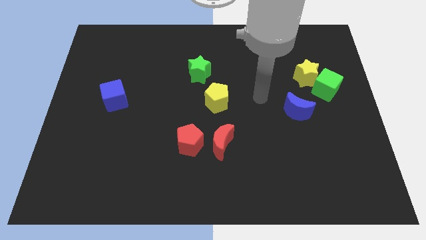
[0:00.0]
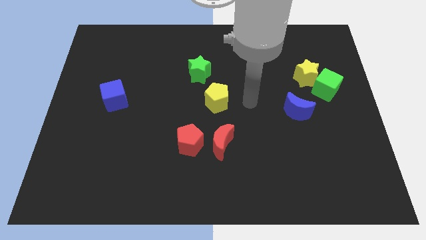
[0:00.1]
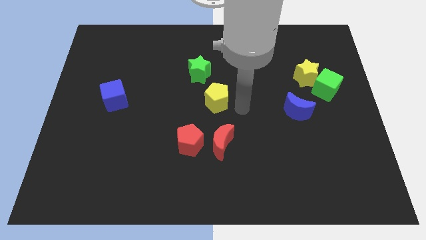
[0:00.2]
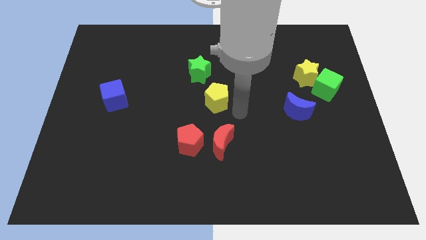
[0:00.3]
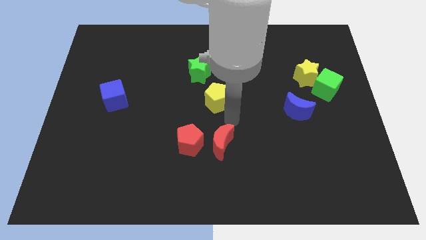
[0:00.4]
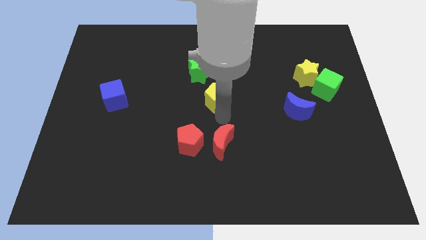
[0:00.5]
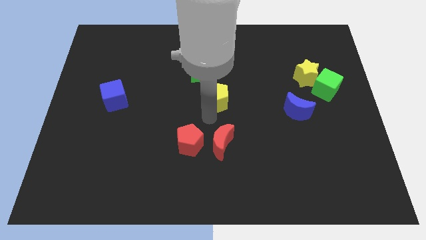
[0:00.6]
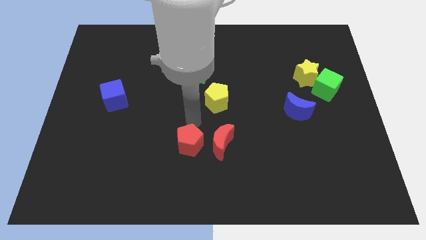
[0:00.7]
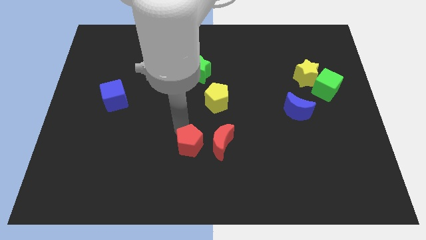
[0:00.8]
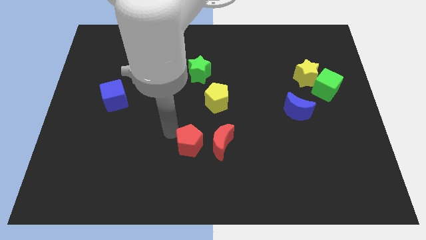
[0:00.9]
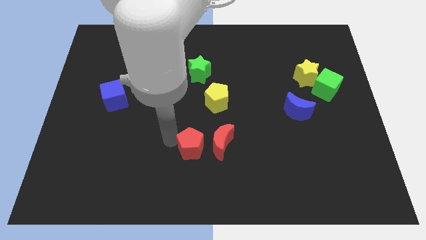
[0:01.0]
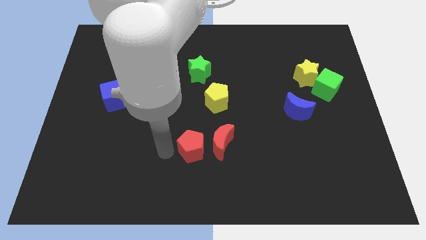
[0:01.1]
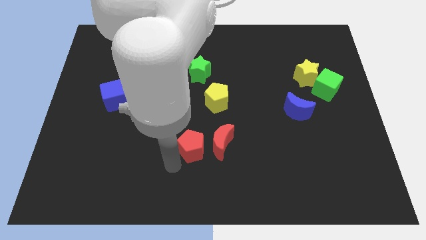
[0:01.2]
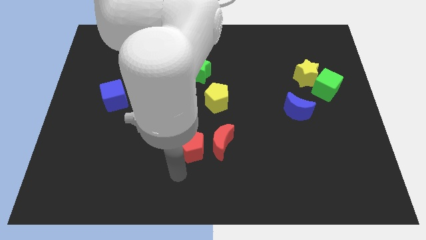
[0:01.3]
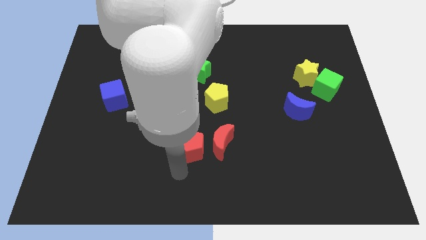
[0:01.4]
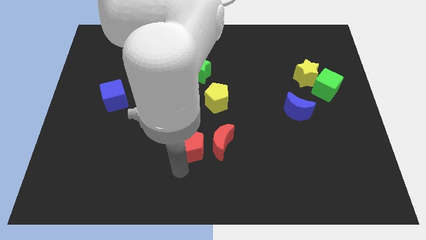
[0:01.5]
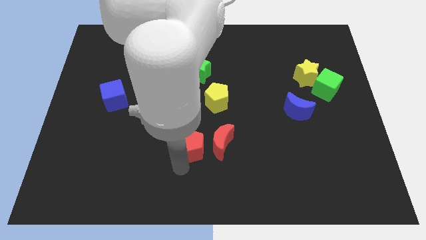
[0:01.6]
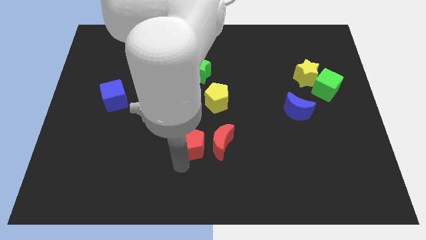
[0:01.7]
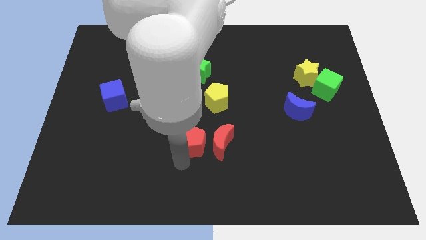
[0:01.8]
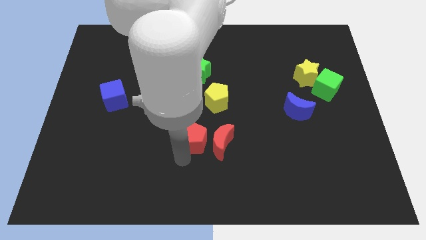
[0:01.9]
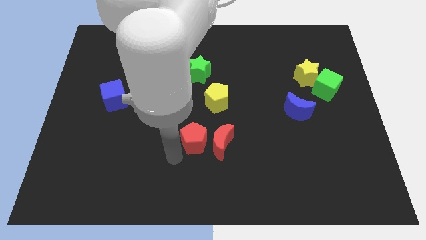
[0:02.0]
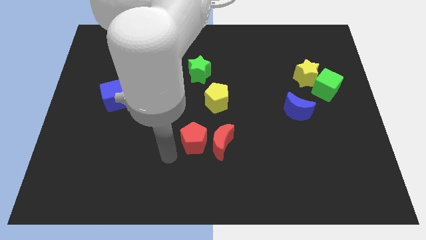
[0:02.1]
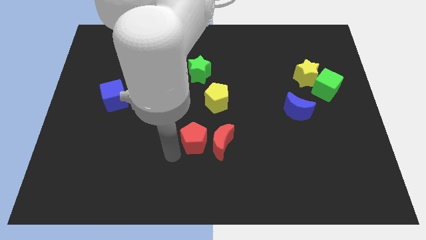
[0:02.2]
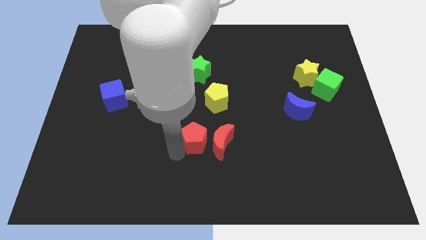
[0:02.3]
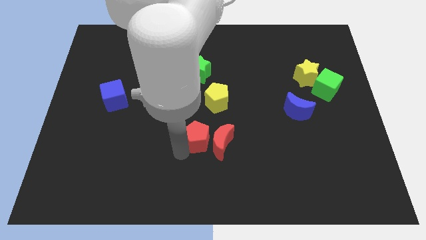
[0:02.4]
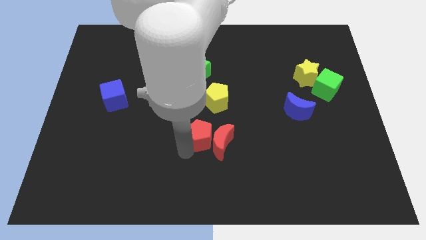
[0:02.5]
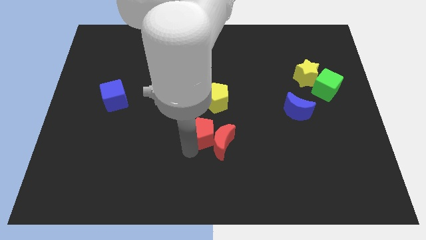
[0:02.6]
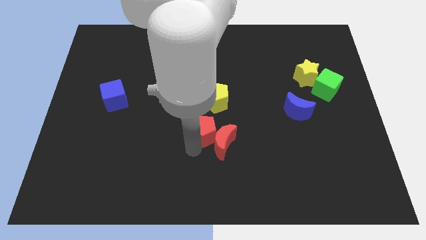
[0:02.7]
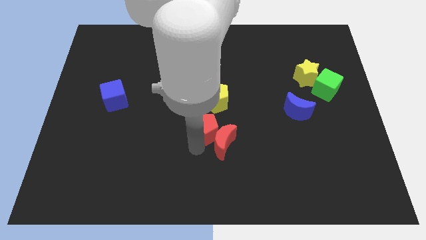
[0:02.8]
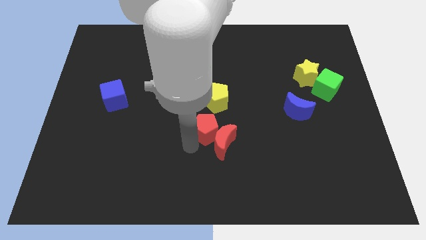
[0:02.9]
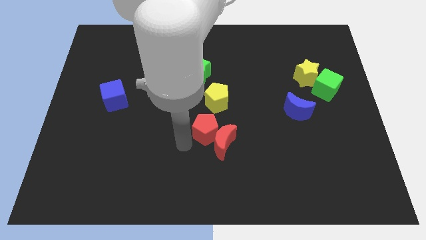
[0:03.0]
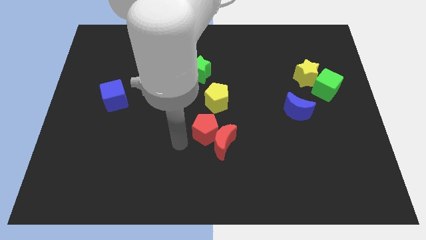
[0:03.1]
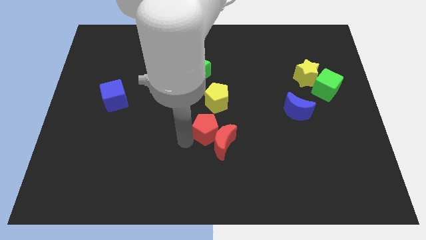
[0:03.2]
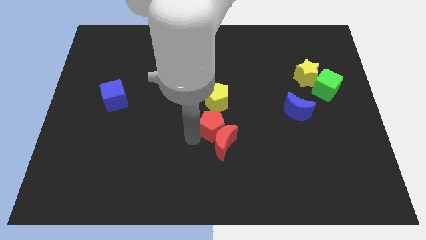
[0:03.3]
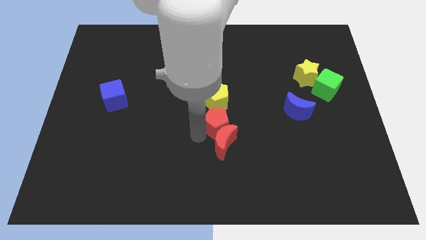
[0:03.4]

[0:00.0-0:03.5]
push the red pentagon slightly up and right

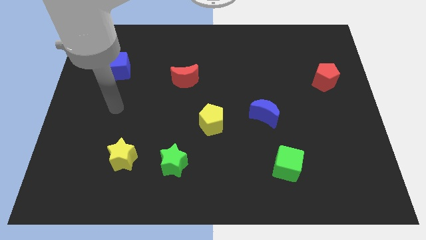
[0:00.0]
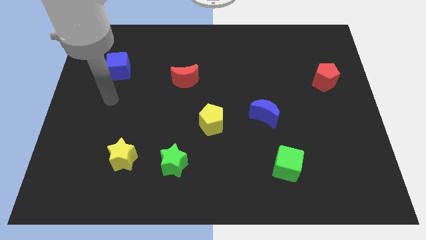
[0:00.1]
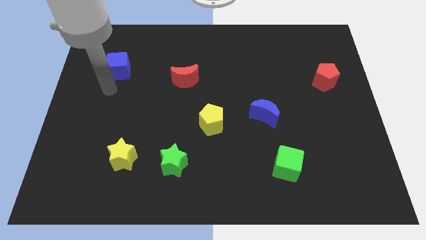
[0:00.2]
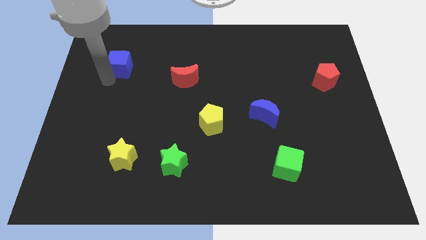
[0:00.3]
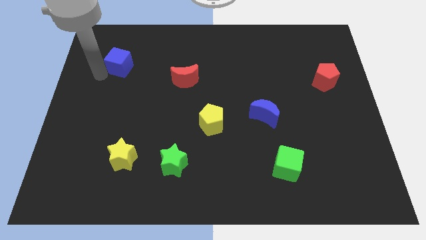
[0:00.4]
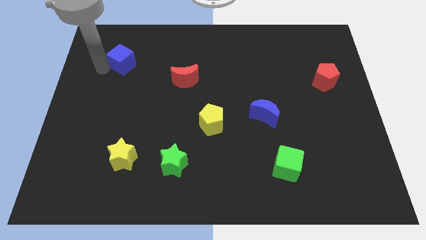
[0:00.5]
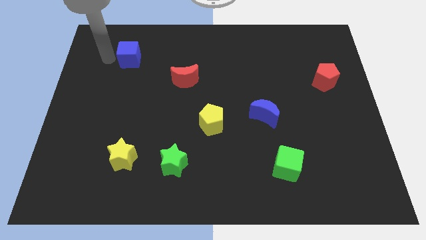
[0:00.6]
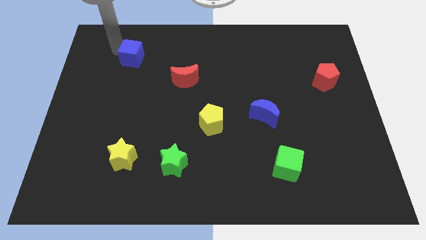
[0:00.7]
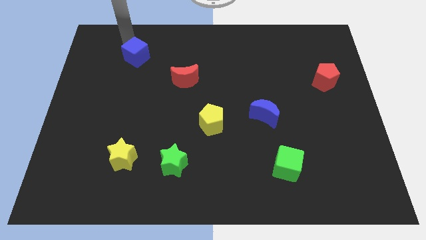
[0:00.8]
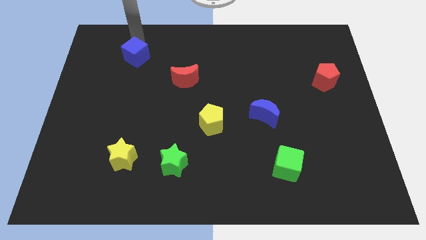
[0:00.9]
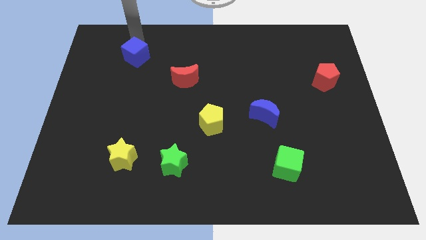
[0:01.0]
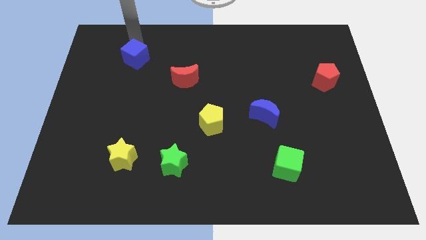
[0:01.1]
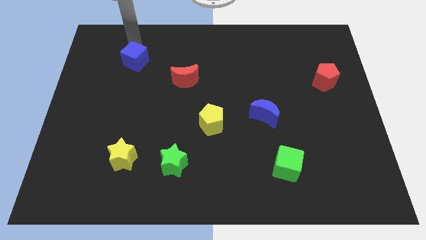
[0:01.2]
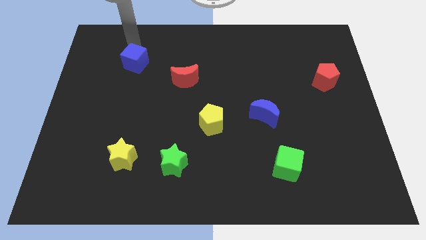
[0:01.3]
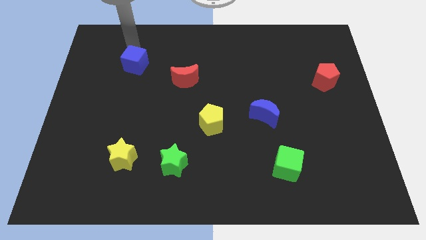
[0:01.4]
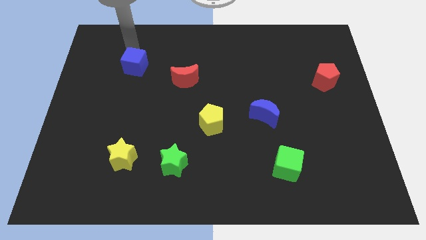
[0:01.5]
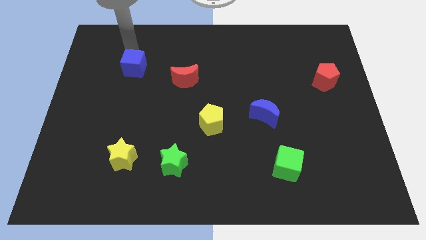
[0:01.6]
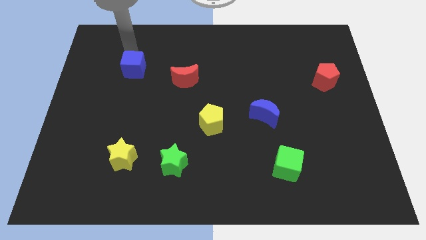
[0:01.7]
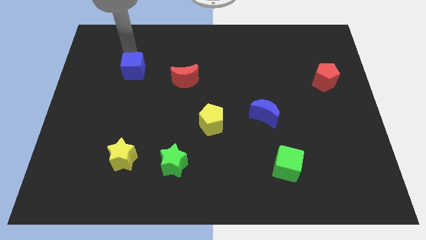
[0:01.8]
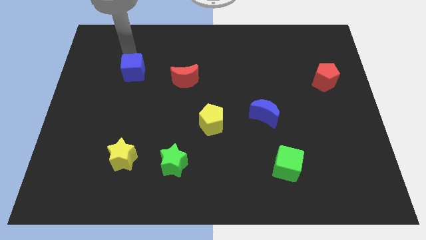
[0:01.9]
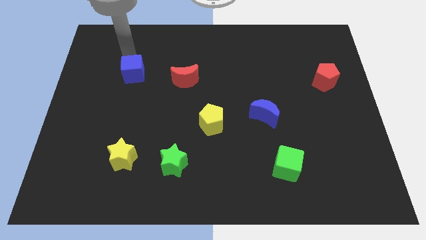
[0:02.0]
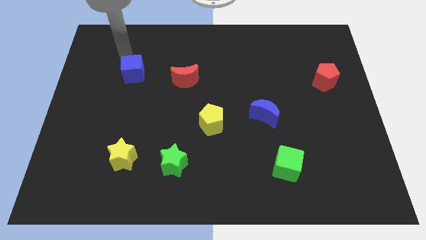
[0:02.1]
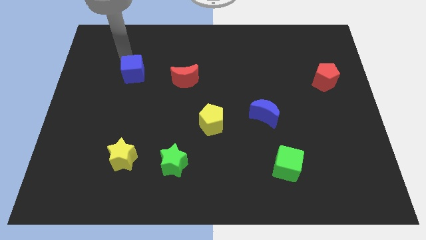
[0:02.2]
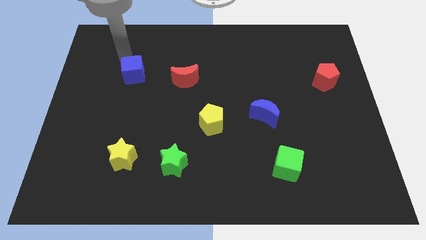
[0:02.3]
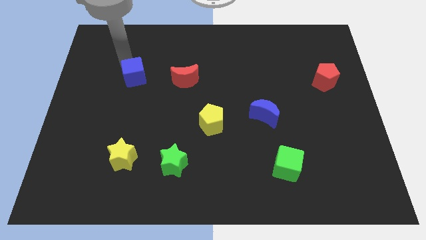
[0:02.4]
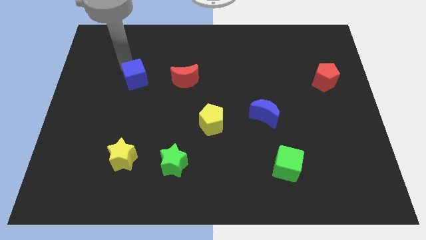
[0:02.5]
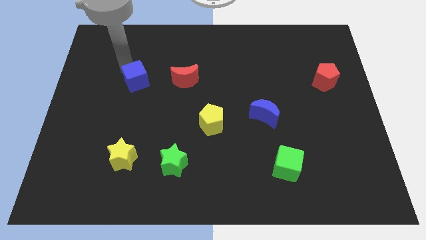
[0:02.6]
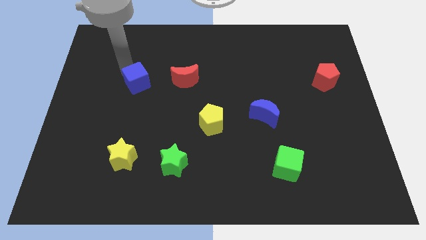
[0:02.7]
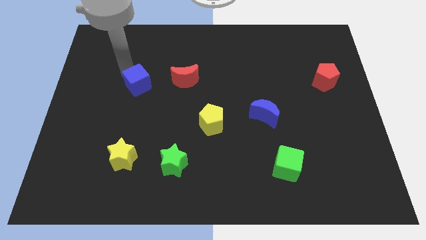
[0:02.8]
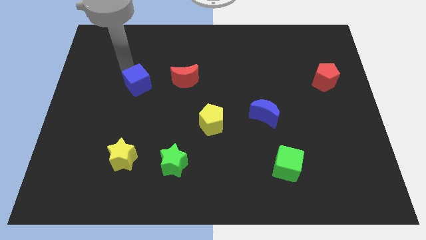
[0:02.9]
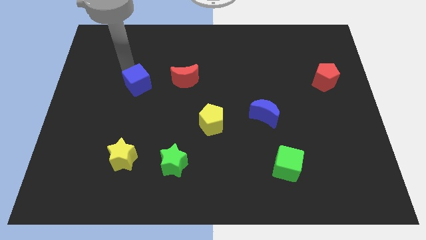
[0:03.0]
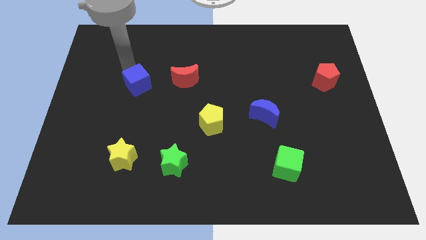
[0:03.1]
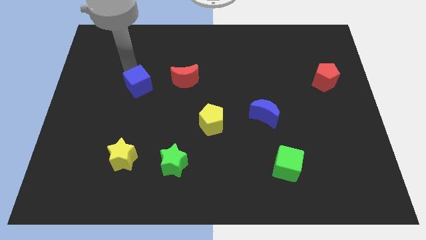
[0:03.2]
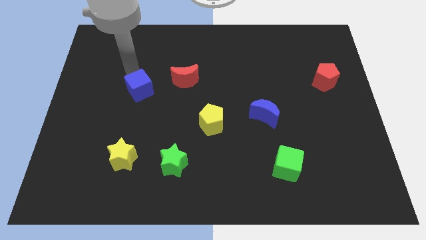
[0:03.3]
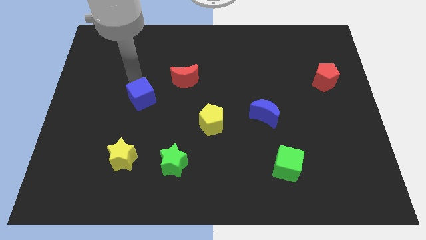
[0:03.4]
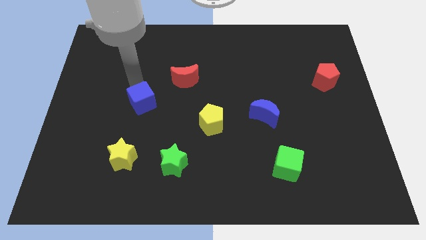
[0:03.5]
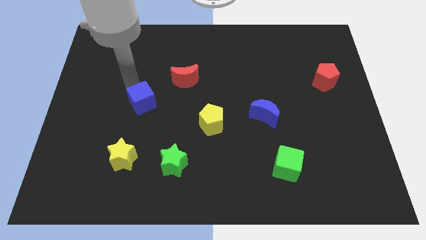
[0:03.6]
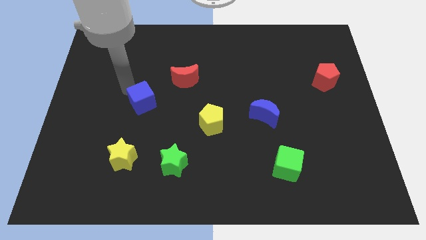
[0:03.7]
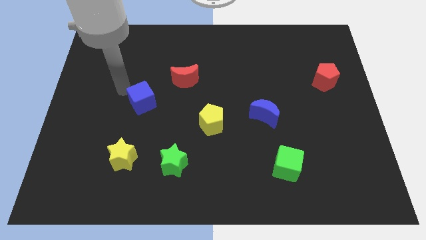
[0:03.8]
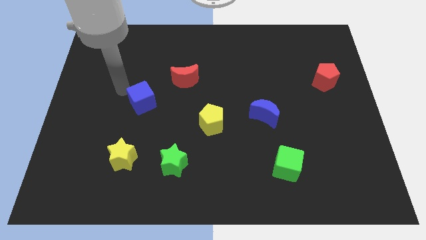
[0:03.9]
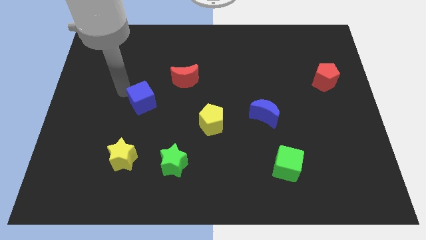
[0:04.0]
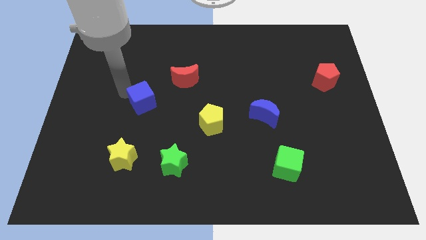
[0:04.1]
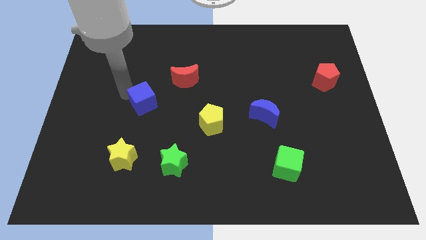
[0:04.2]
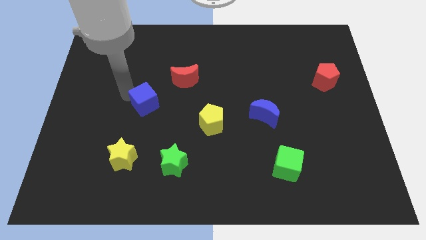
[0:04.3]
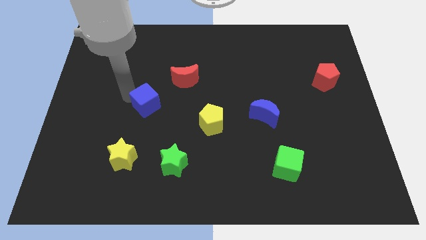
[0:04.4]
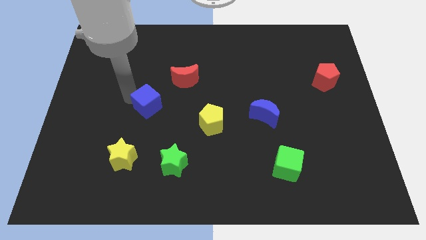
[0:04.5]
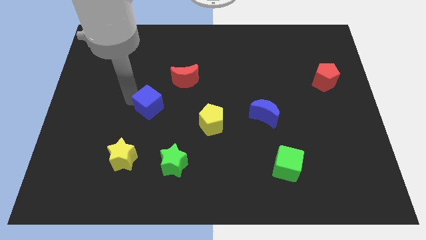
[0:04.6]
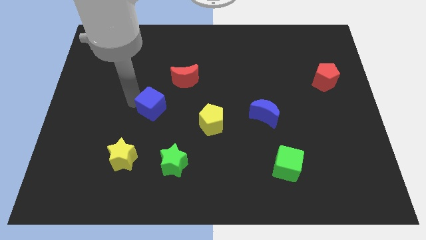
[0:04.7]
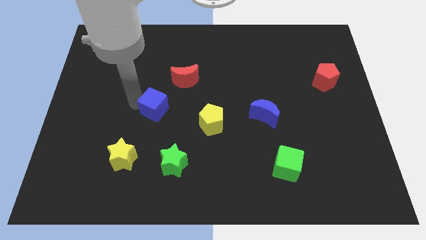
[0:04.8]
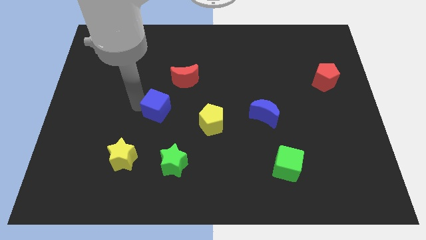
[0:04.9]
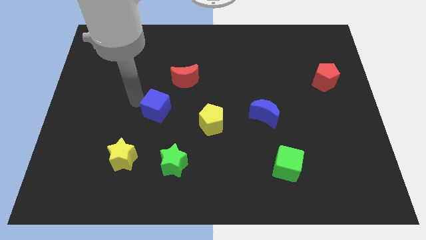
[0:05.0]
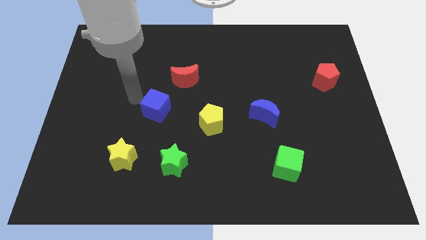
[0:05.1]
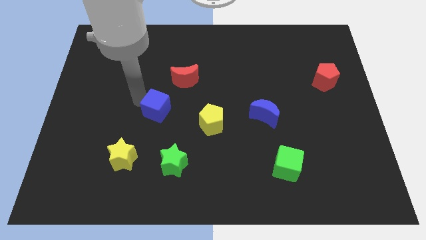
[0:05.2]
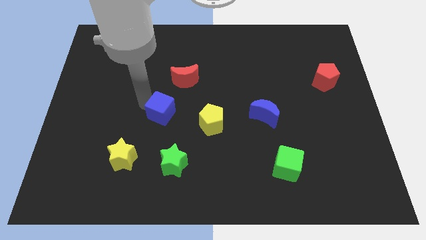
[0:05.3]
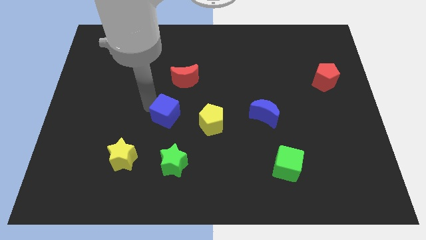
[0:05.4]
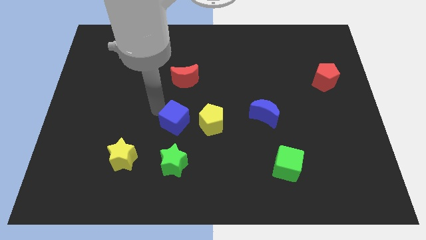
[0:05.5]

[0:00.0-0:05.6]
slide the blue cube down and right
